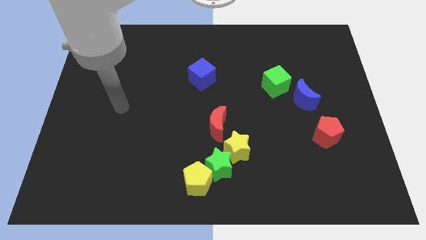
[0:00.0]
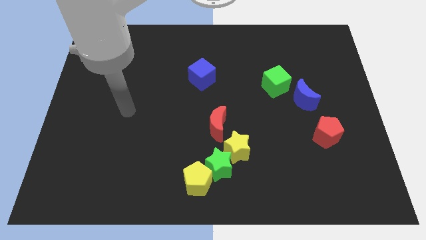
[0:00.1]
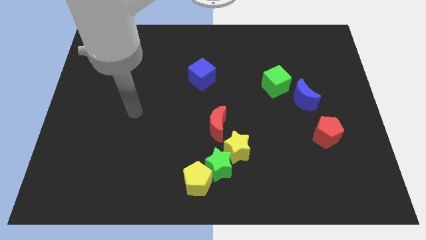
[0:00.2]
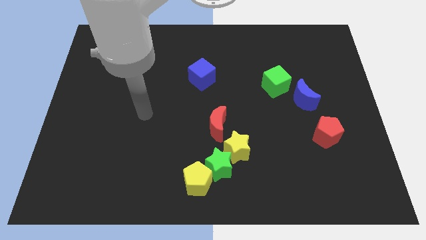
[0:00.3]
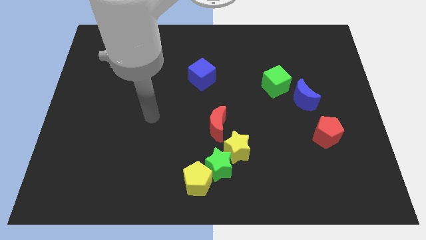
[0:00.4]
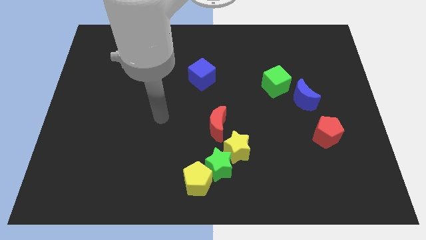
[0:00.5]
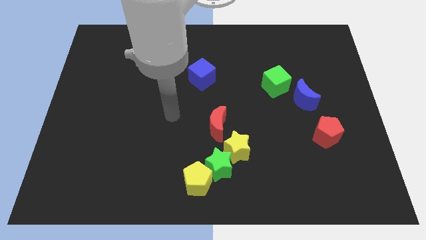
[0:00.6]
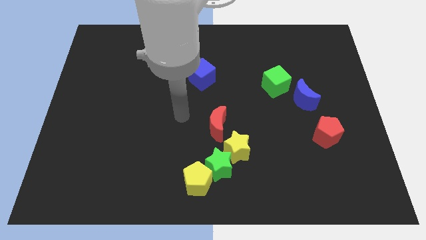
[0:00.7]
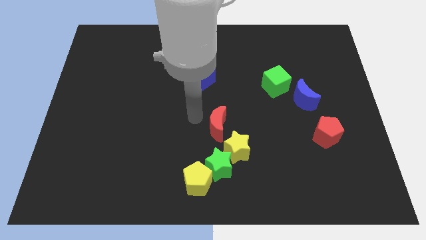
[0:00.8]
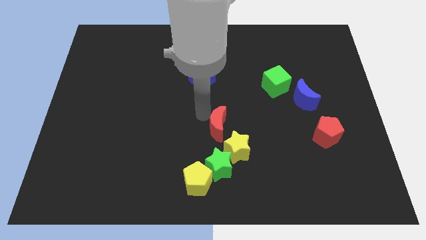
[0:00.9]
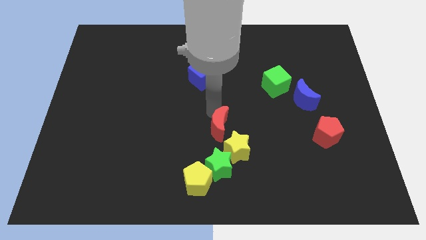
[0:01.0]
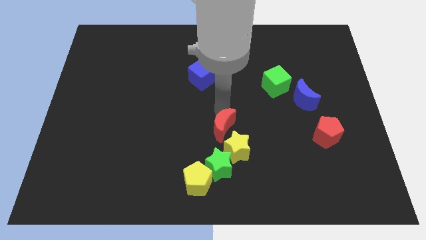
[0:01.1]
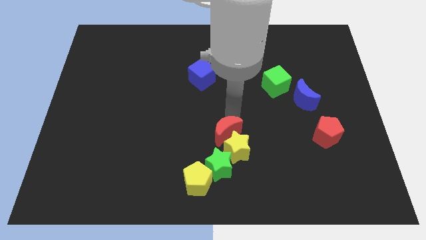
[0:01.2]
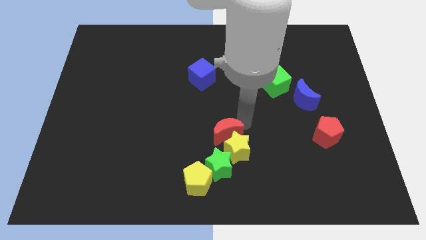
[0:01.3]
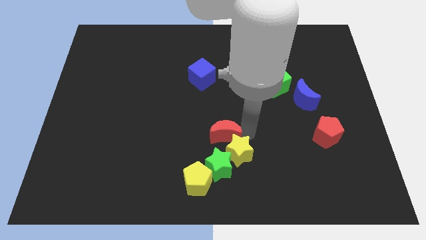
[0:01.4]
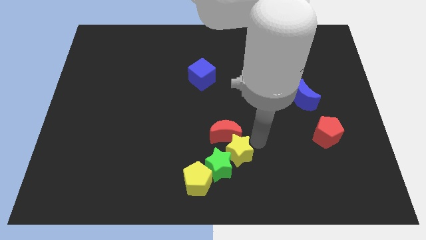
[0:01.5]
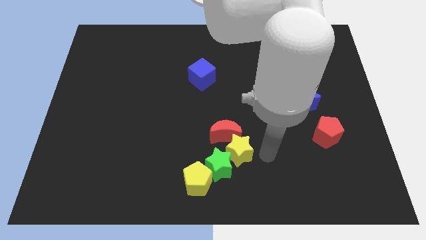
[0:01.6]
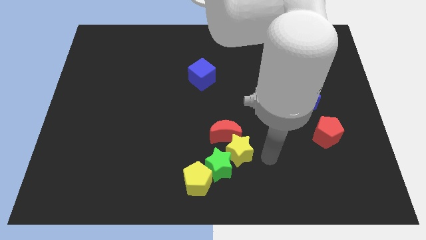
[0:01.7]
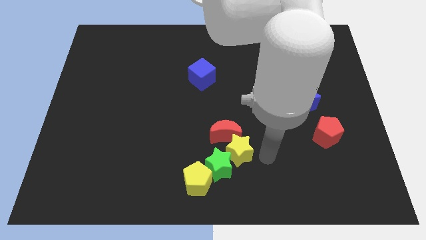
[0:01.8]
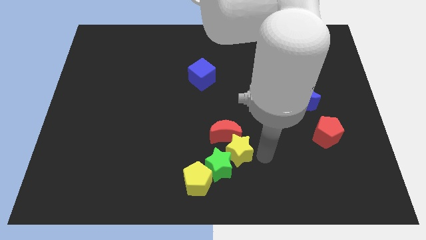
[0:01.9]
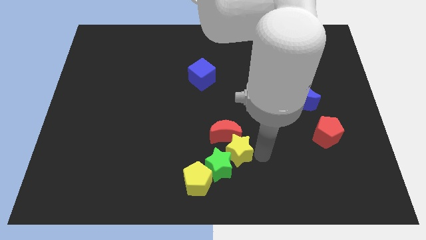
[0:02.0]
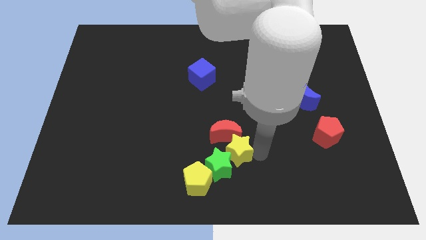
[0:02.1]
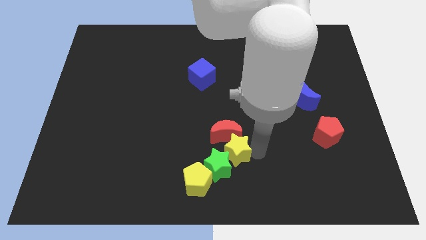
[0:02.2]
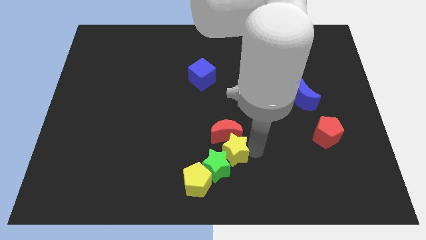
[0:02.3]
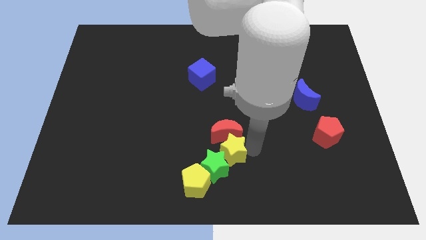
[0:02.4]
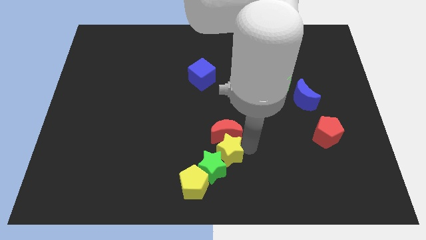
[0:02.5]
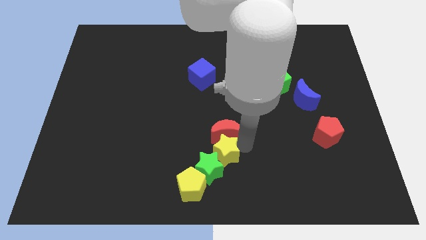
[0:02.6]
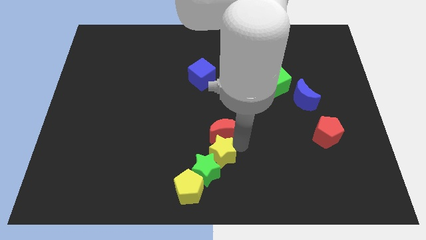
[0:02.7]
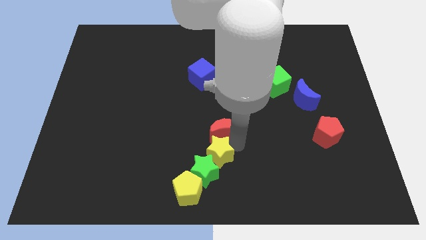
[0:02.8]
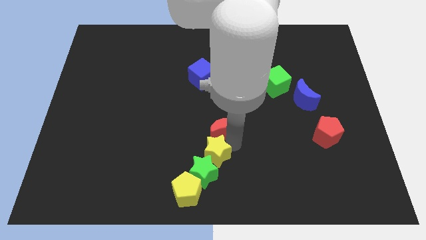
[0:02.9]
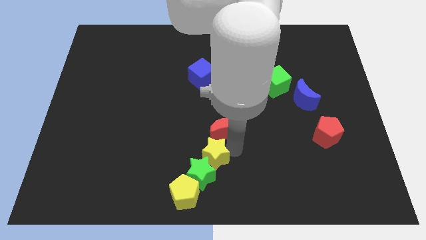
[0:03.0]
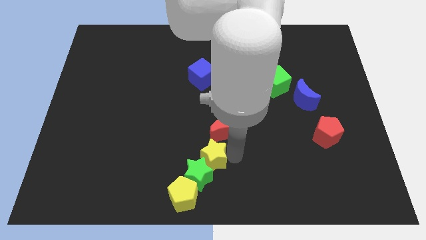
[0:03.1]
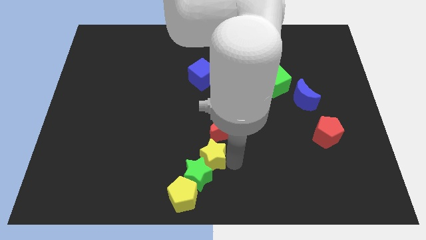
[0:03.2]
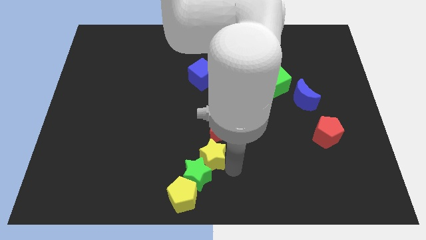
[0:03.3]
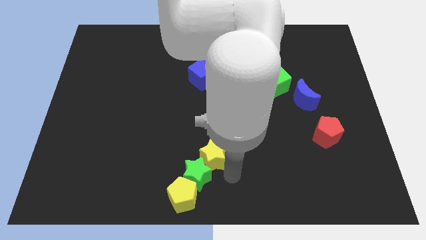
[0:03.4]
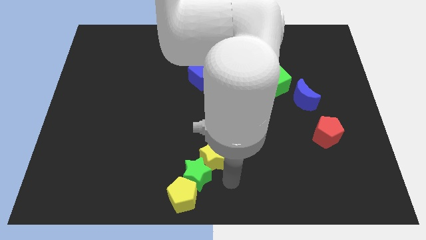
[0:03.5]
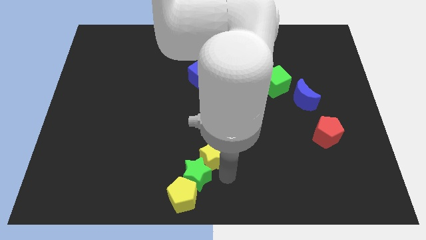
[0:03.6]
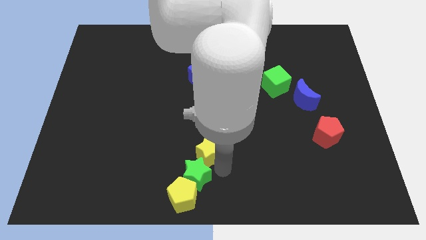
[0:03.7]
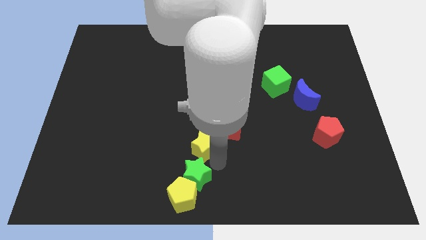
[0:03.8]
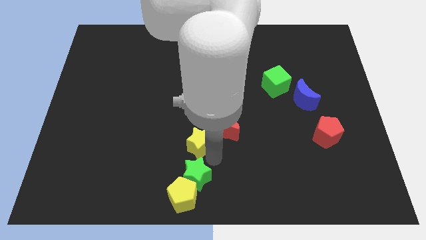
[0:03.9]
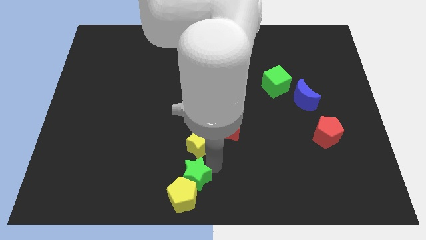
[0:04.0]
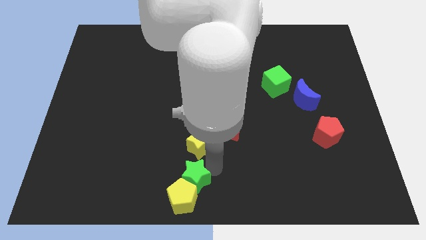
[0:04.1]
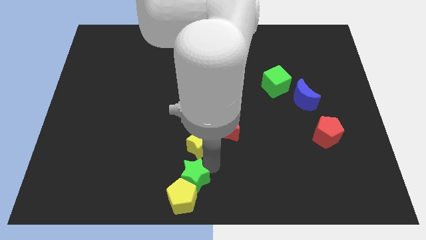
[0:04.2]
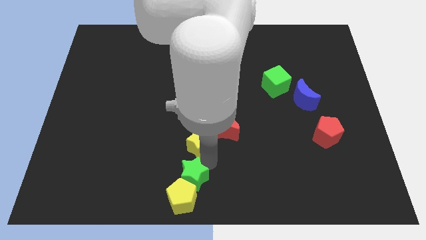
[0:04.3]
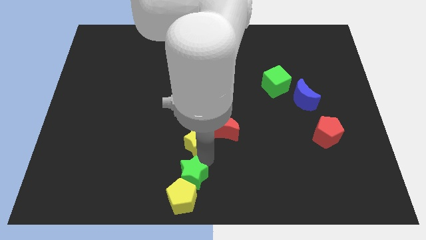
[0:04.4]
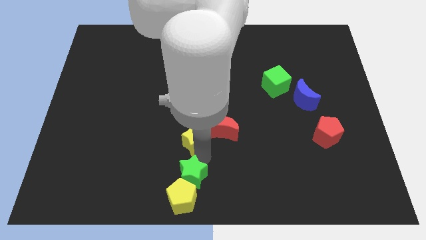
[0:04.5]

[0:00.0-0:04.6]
slightly move the yellow star up and then left

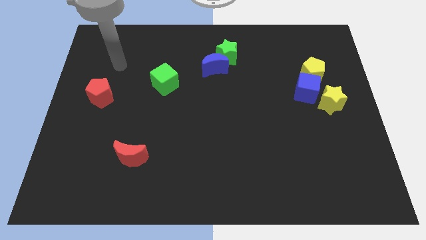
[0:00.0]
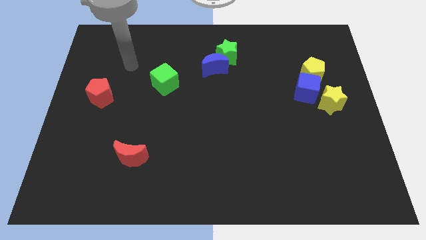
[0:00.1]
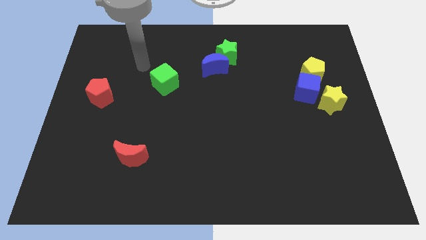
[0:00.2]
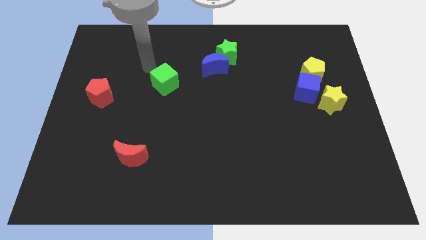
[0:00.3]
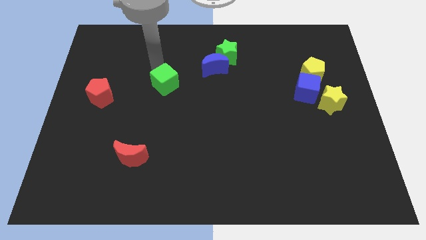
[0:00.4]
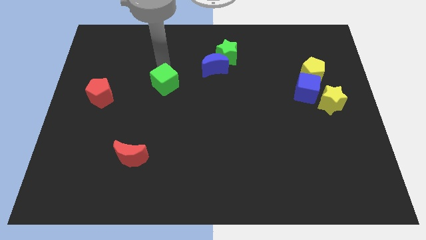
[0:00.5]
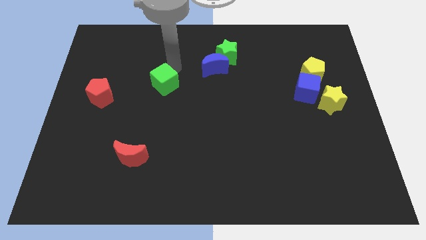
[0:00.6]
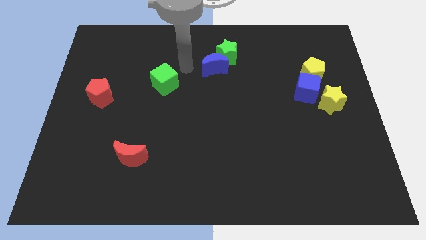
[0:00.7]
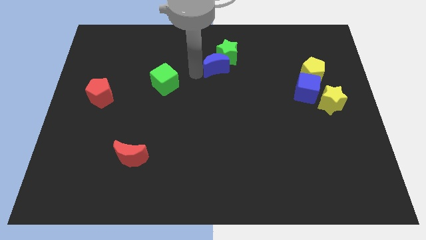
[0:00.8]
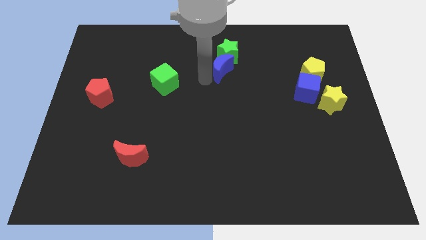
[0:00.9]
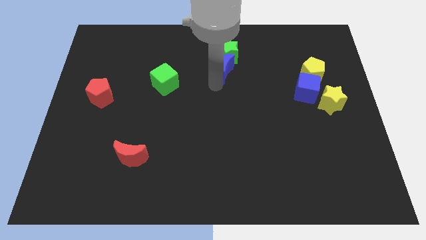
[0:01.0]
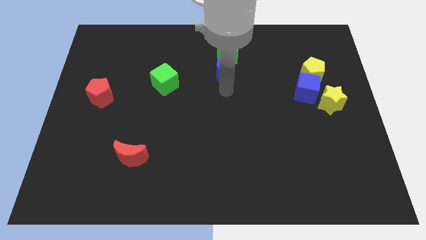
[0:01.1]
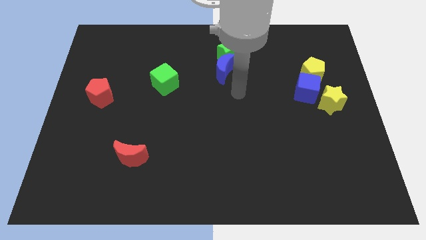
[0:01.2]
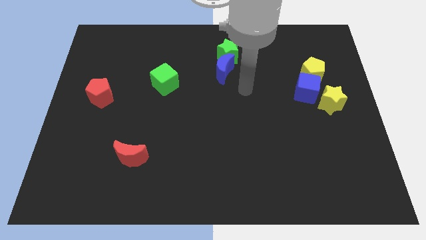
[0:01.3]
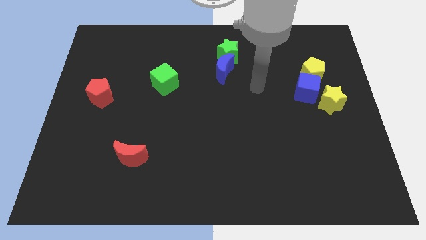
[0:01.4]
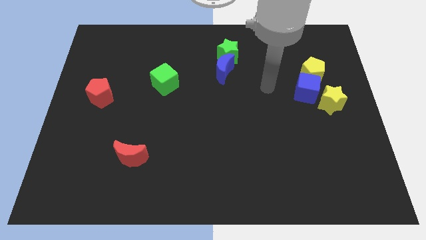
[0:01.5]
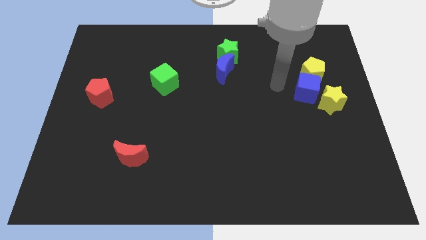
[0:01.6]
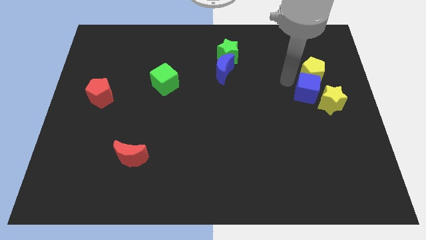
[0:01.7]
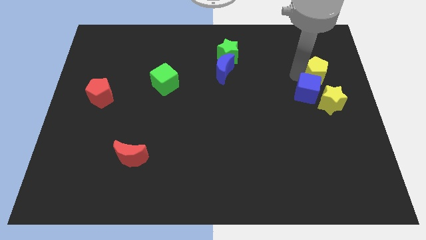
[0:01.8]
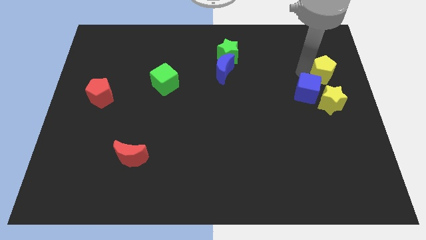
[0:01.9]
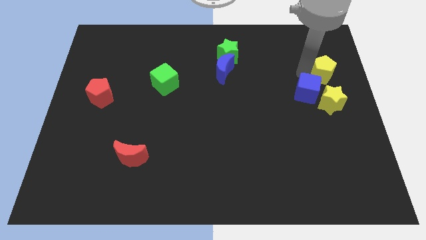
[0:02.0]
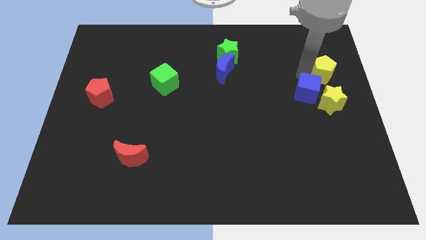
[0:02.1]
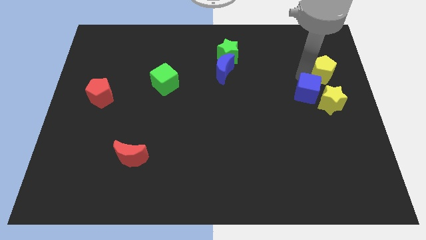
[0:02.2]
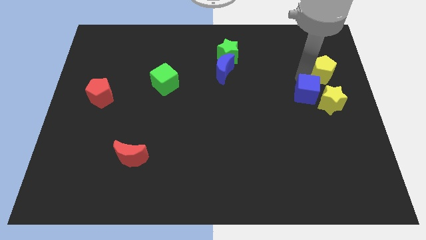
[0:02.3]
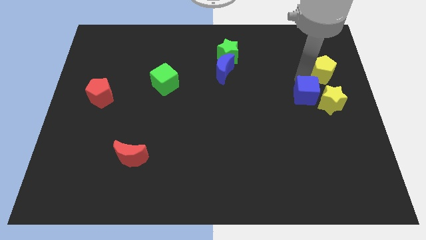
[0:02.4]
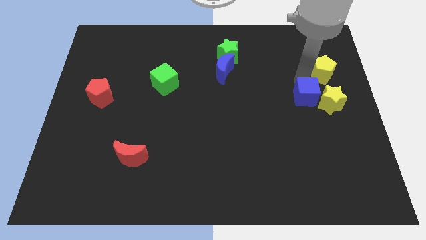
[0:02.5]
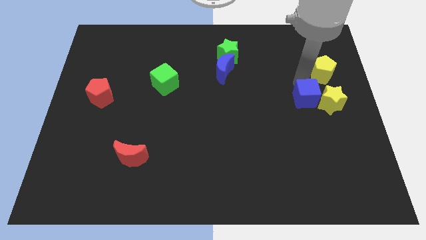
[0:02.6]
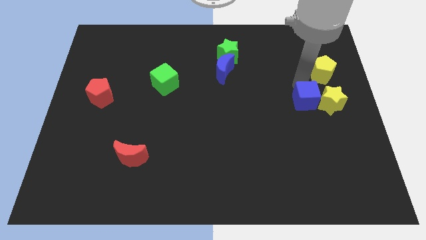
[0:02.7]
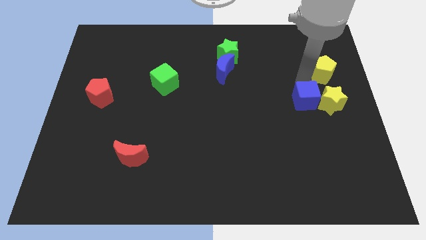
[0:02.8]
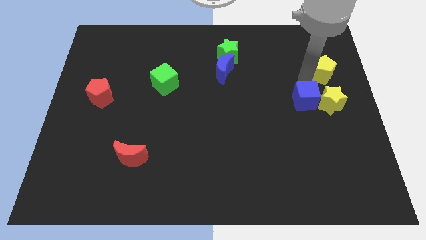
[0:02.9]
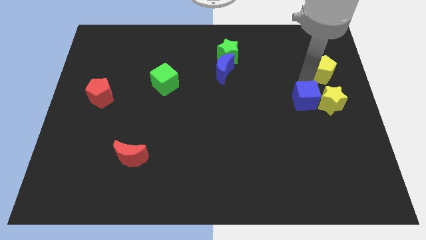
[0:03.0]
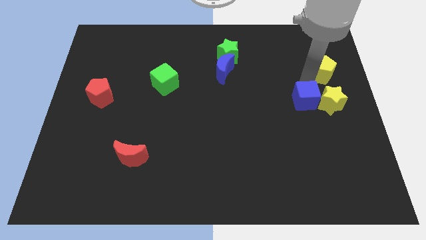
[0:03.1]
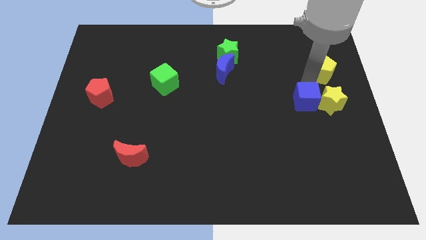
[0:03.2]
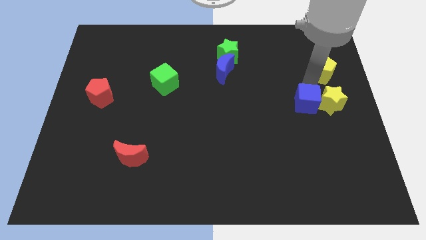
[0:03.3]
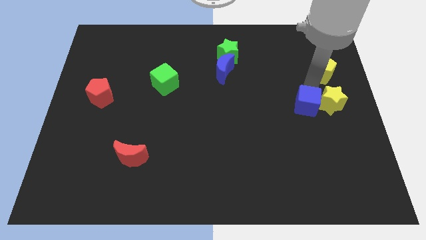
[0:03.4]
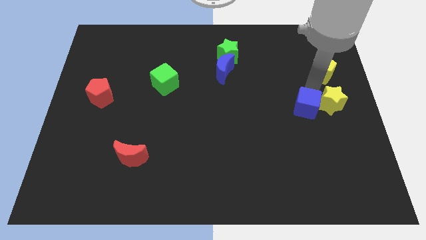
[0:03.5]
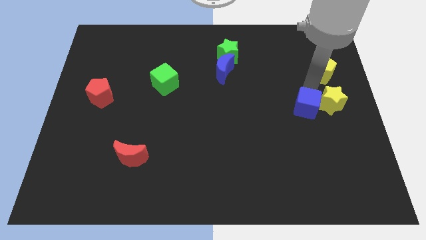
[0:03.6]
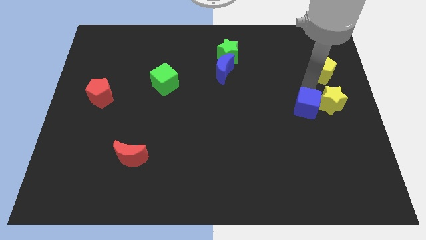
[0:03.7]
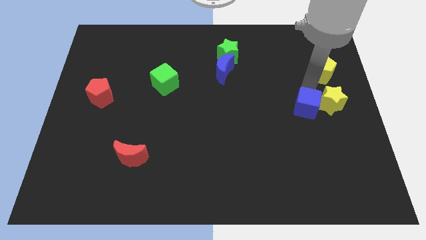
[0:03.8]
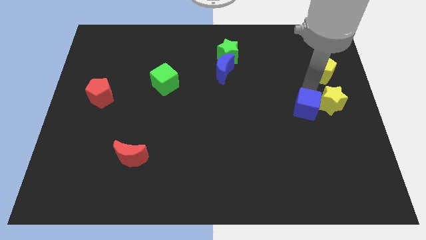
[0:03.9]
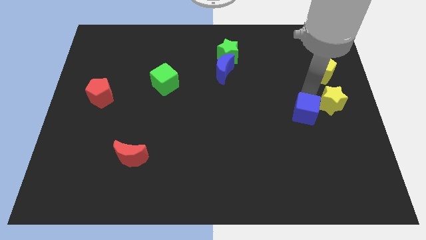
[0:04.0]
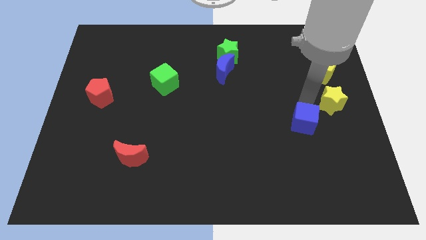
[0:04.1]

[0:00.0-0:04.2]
move the blue cube down a little
